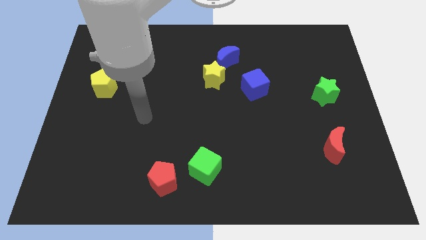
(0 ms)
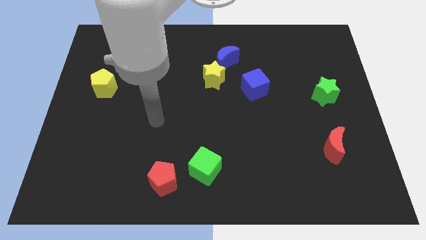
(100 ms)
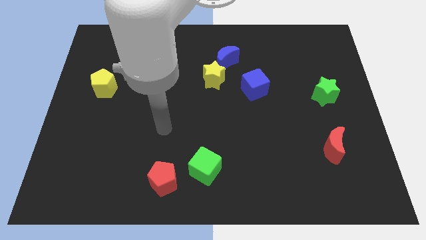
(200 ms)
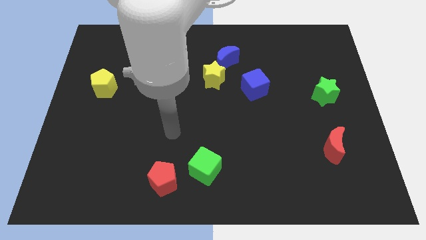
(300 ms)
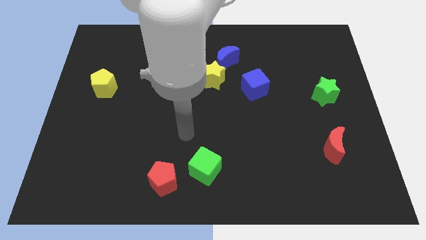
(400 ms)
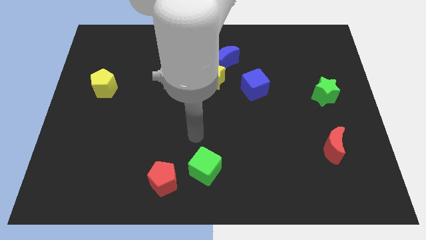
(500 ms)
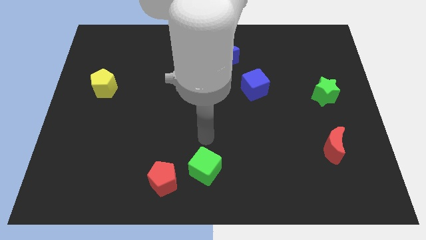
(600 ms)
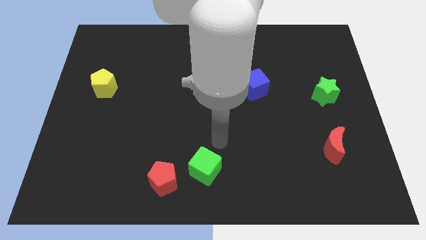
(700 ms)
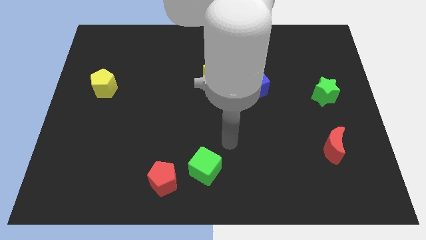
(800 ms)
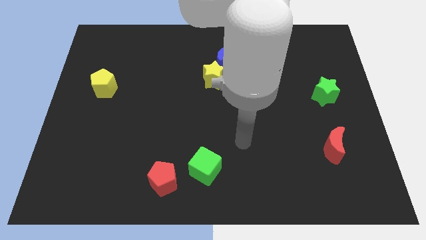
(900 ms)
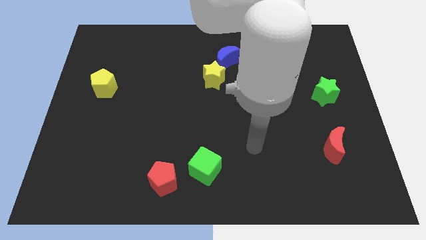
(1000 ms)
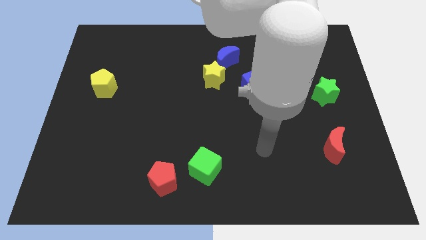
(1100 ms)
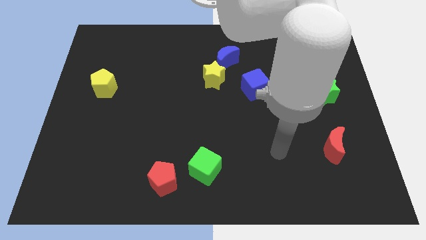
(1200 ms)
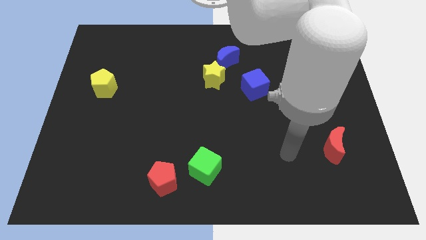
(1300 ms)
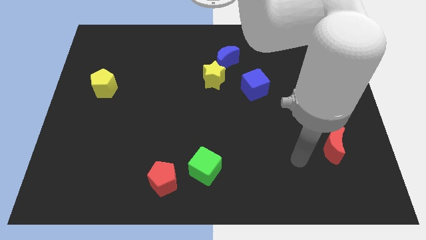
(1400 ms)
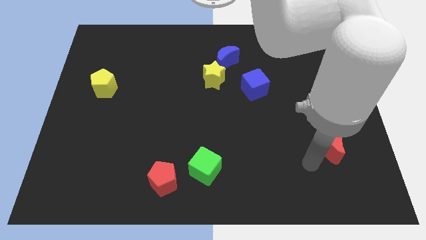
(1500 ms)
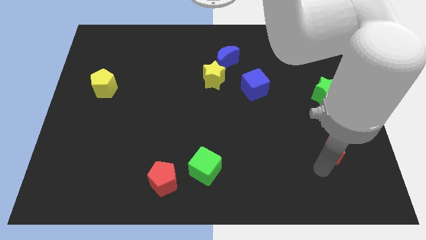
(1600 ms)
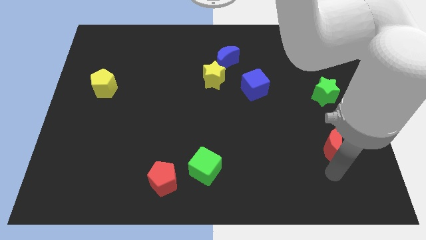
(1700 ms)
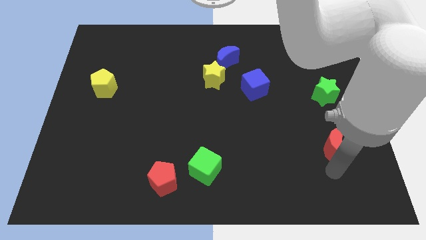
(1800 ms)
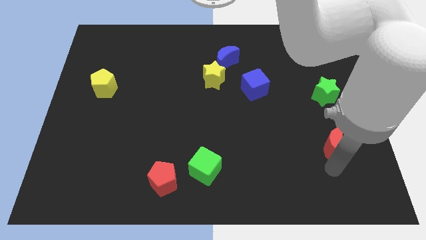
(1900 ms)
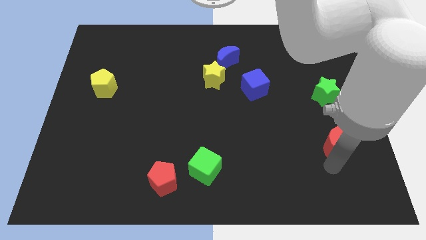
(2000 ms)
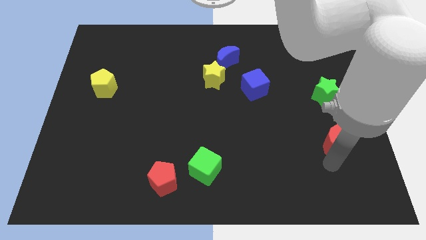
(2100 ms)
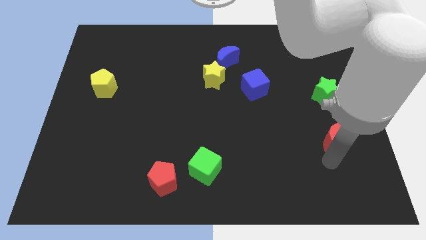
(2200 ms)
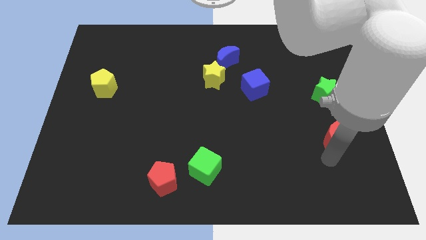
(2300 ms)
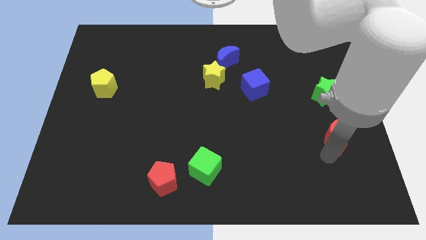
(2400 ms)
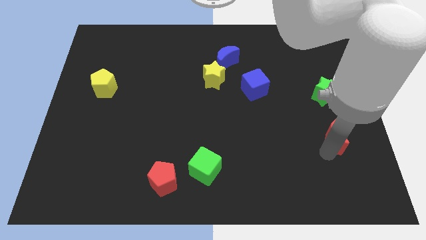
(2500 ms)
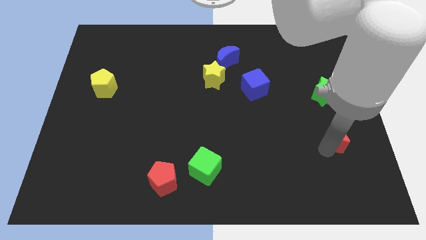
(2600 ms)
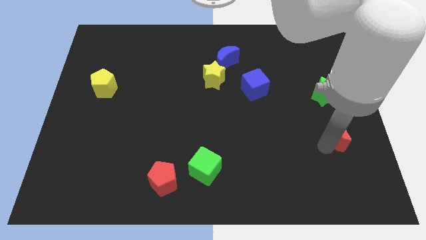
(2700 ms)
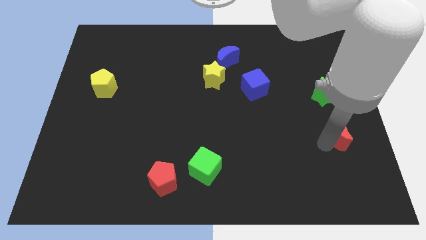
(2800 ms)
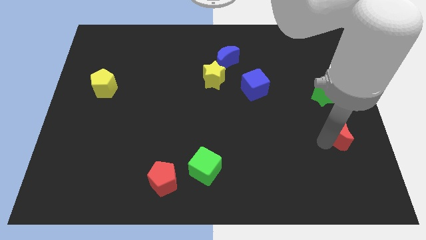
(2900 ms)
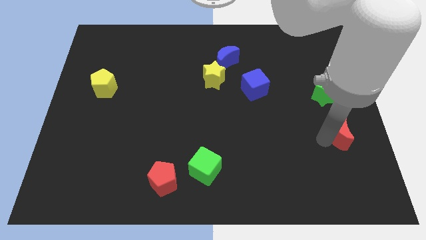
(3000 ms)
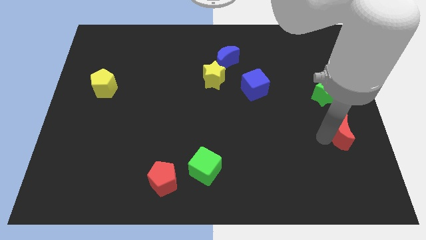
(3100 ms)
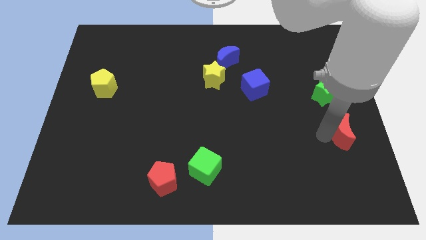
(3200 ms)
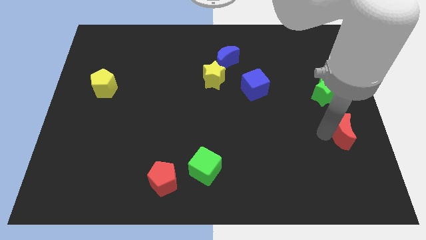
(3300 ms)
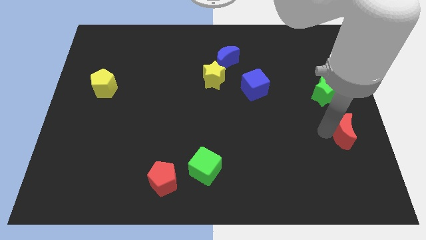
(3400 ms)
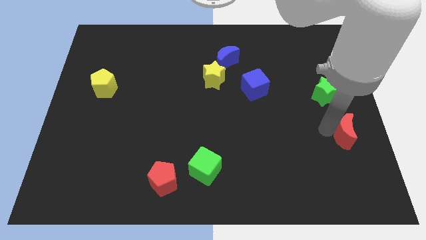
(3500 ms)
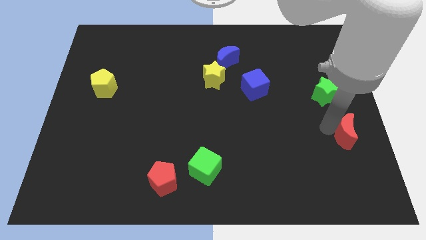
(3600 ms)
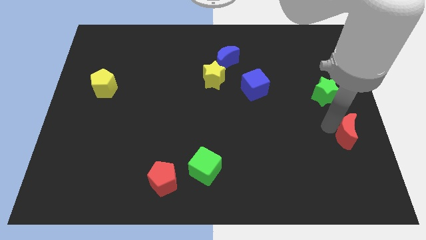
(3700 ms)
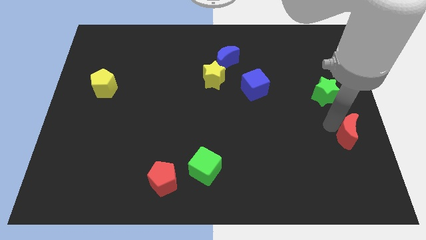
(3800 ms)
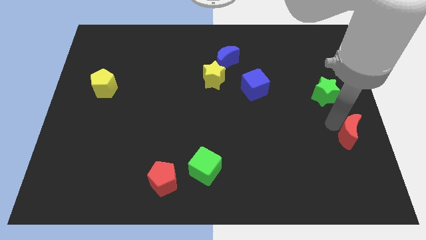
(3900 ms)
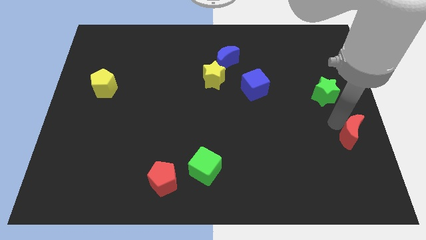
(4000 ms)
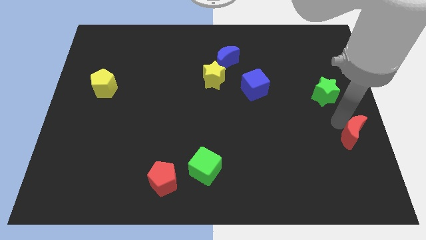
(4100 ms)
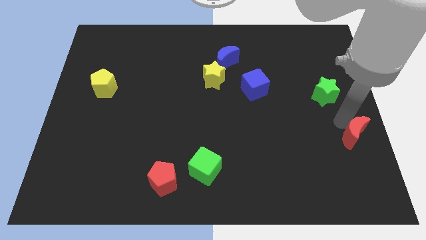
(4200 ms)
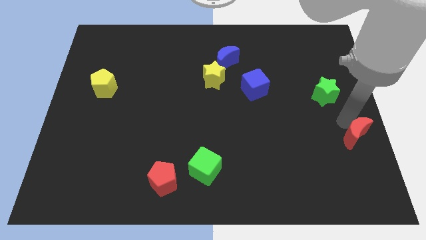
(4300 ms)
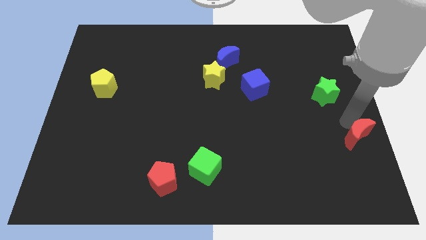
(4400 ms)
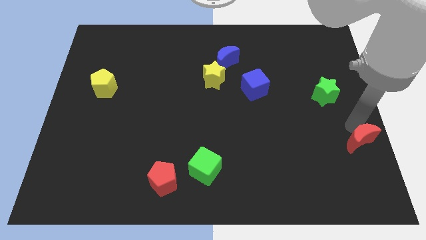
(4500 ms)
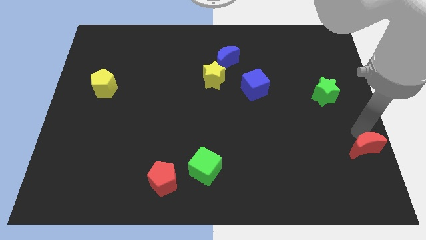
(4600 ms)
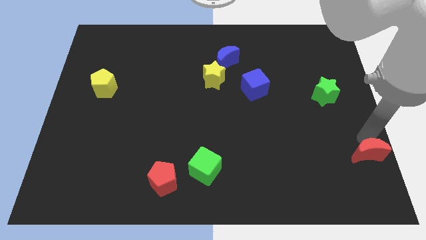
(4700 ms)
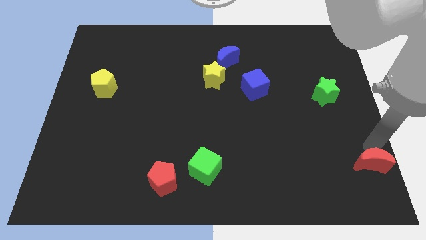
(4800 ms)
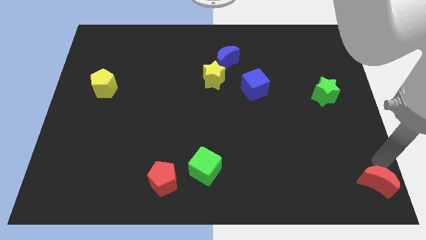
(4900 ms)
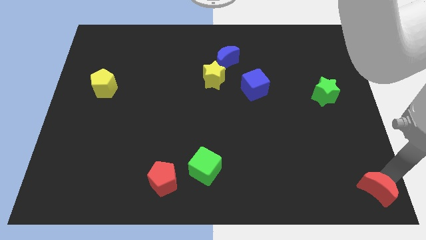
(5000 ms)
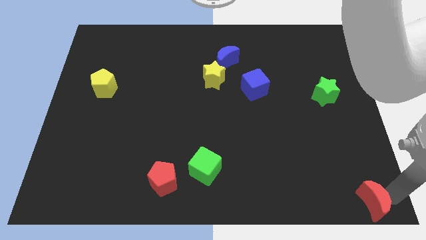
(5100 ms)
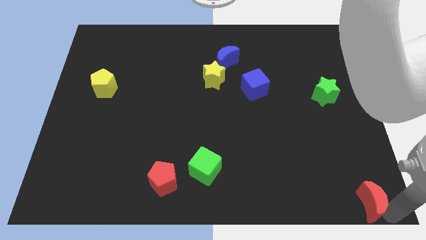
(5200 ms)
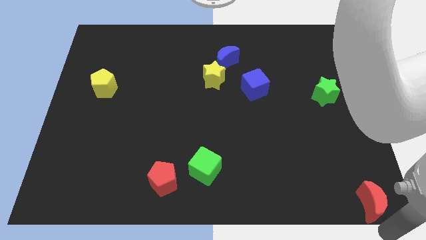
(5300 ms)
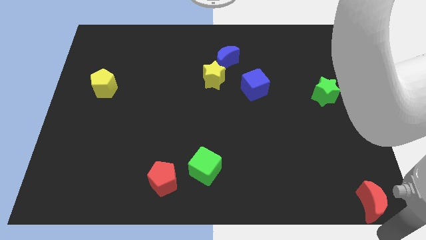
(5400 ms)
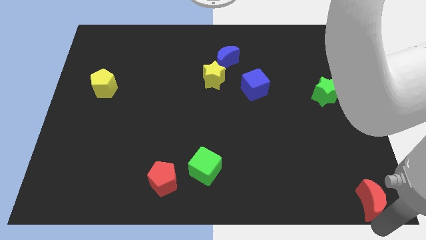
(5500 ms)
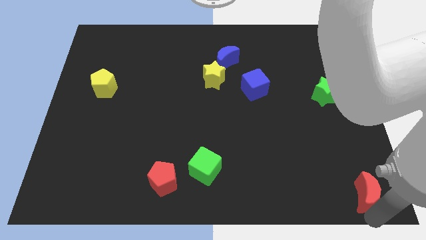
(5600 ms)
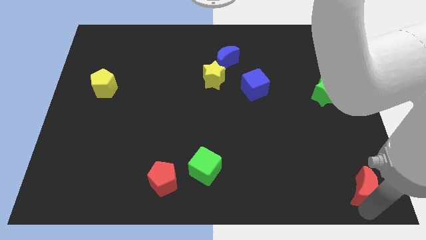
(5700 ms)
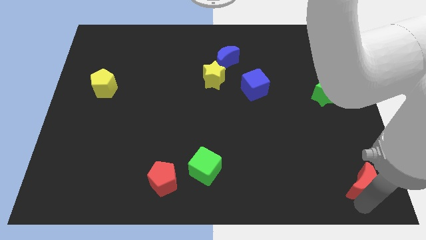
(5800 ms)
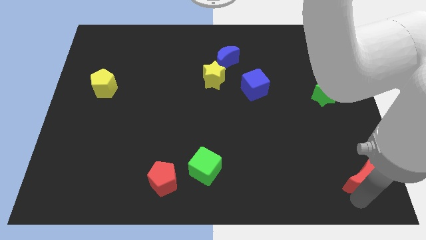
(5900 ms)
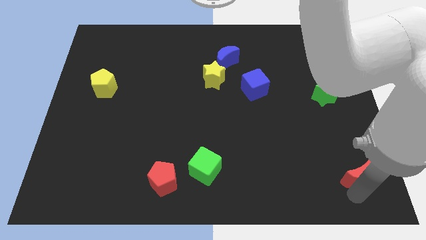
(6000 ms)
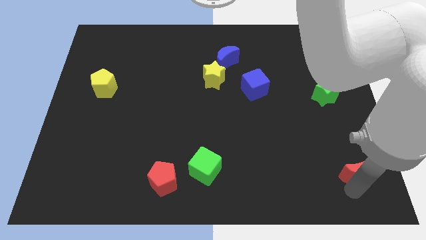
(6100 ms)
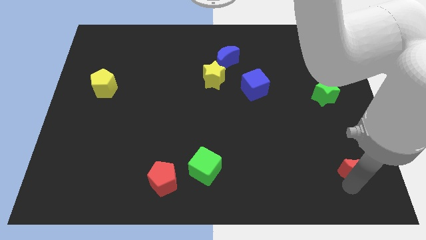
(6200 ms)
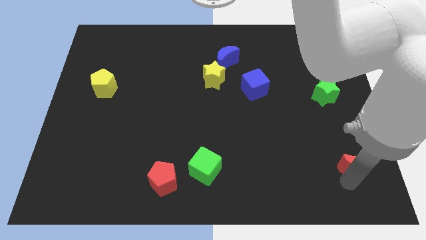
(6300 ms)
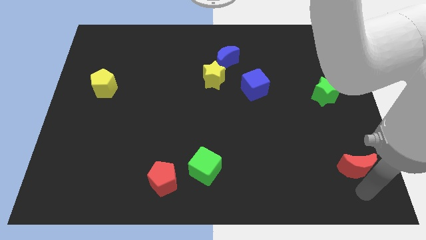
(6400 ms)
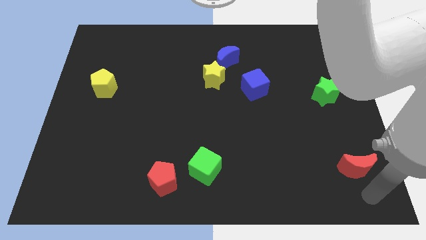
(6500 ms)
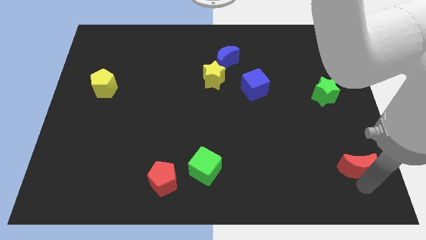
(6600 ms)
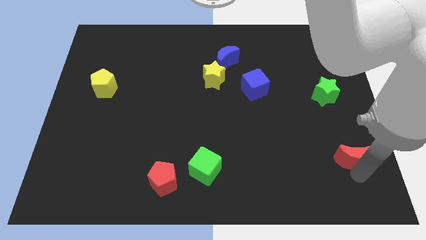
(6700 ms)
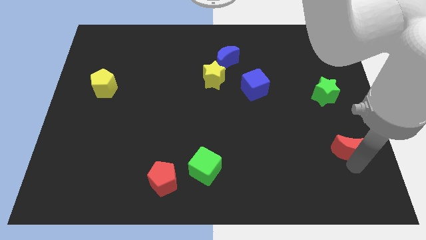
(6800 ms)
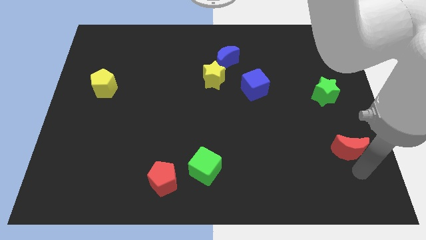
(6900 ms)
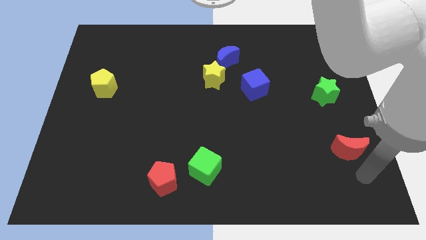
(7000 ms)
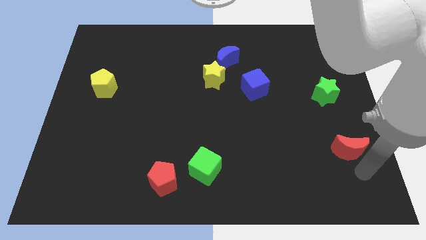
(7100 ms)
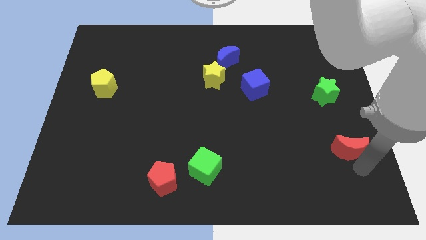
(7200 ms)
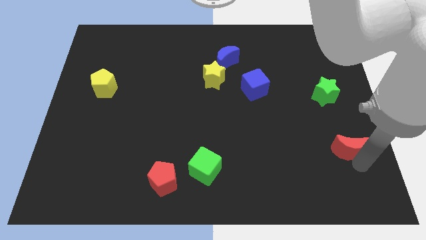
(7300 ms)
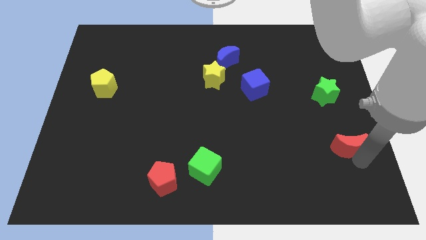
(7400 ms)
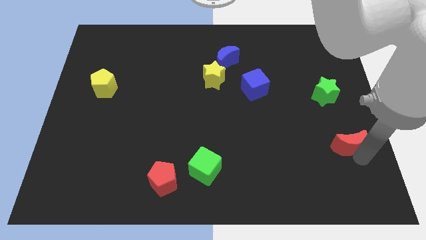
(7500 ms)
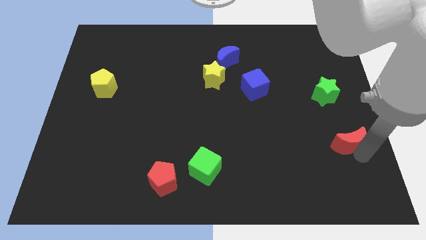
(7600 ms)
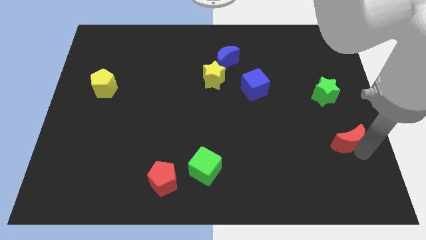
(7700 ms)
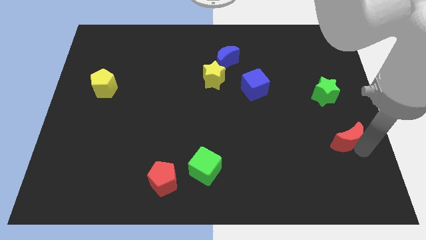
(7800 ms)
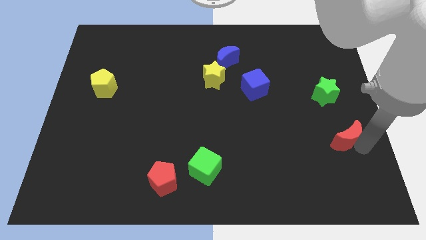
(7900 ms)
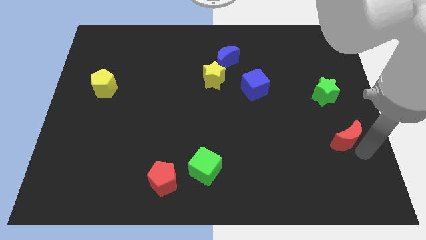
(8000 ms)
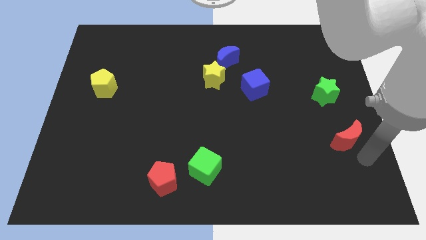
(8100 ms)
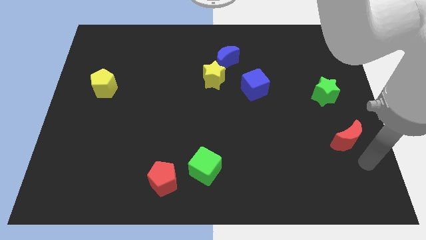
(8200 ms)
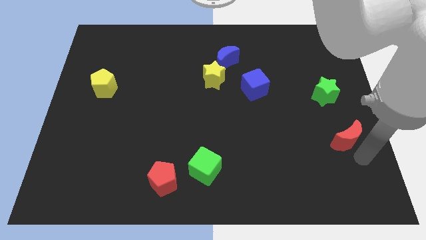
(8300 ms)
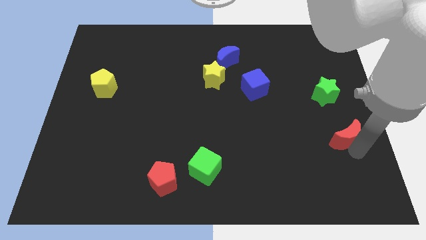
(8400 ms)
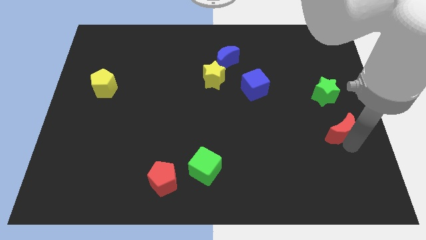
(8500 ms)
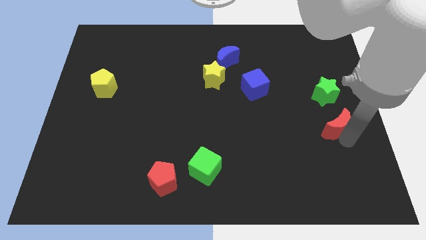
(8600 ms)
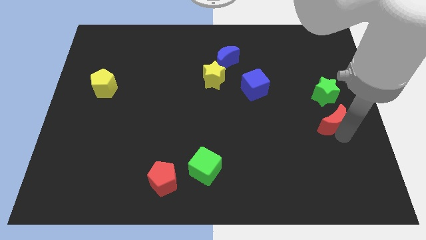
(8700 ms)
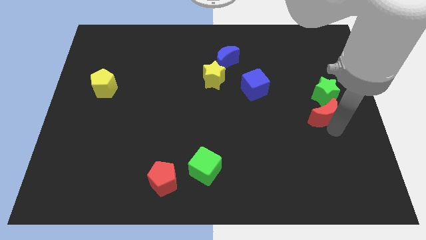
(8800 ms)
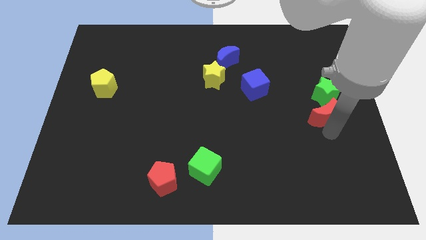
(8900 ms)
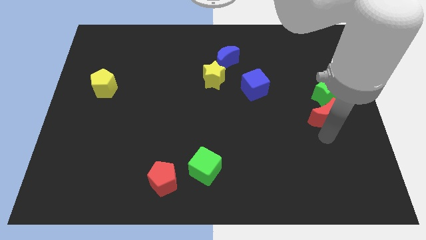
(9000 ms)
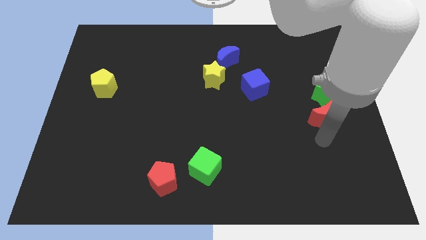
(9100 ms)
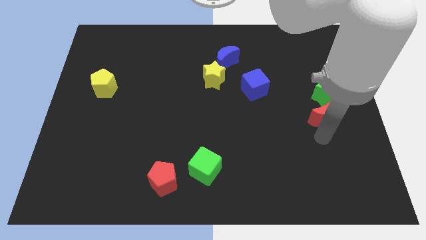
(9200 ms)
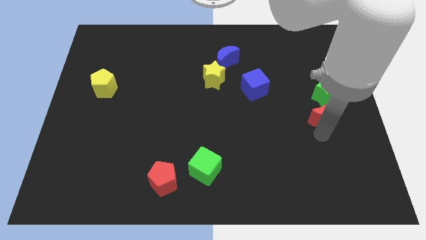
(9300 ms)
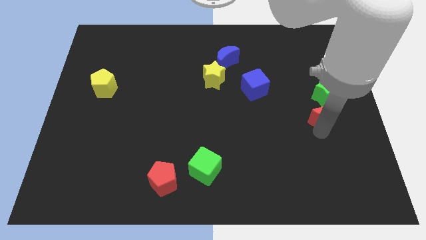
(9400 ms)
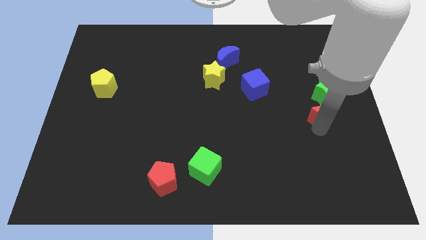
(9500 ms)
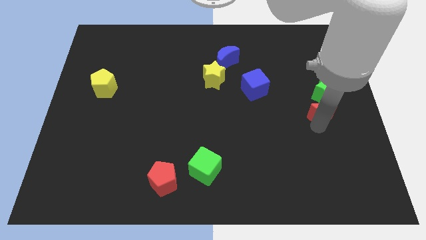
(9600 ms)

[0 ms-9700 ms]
move the red moon close to the green star
